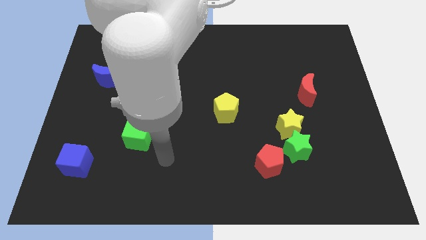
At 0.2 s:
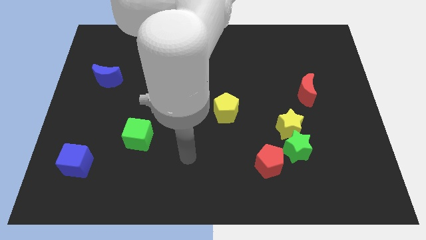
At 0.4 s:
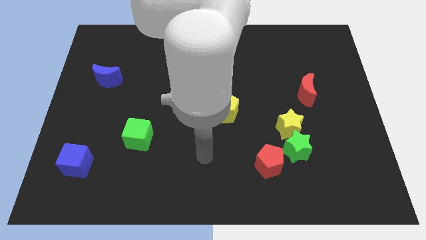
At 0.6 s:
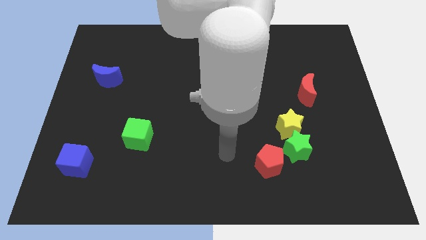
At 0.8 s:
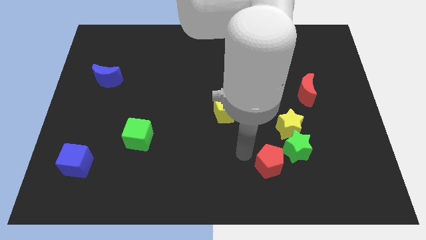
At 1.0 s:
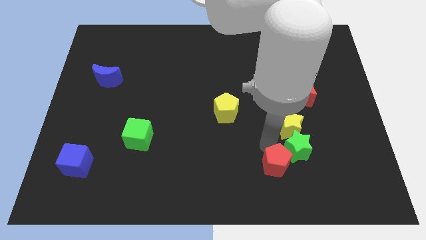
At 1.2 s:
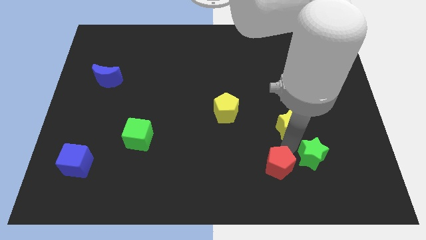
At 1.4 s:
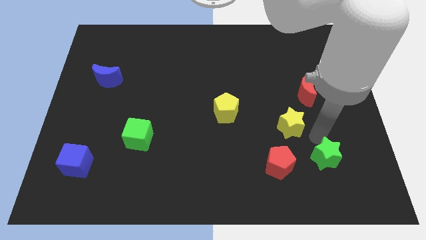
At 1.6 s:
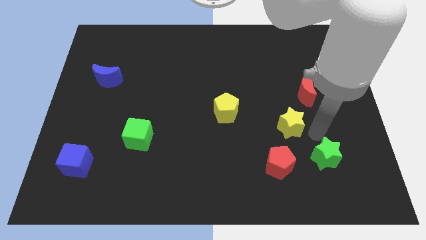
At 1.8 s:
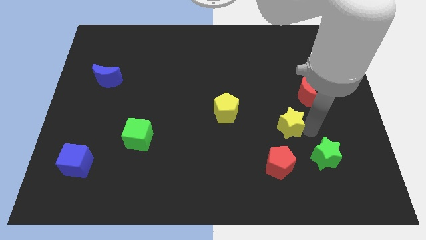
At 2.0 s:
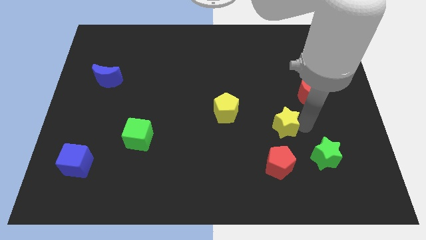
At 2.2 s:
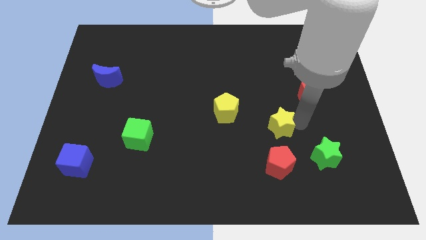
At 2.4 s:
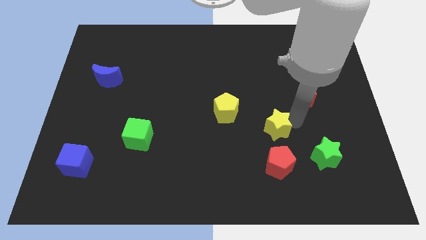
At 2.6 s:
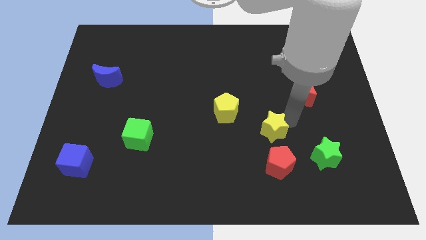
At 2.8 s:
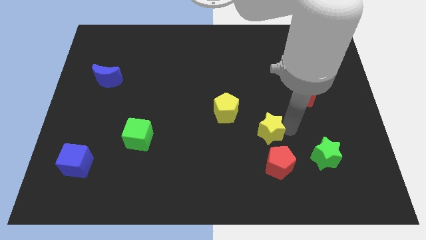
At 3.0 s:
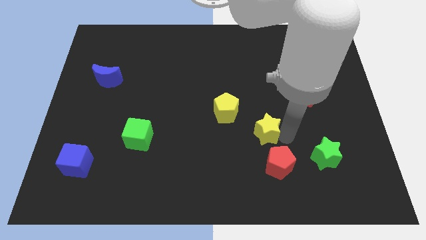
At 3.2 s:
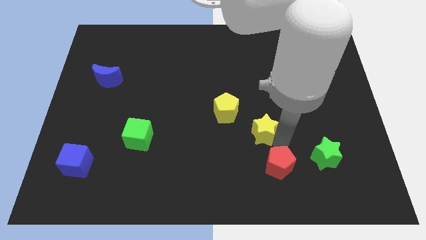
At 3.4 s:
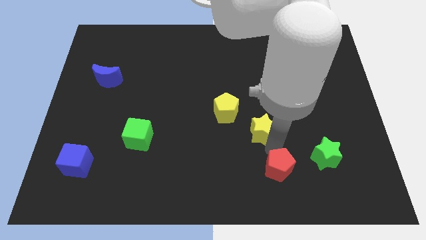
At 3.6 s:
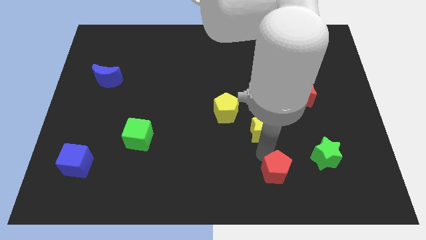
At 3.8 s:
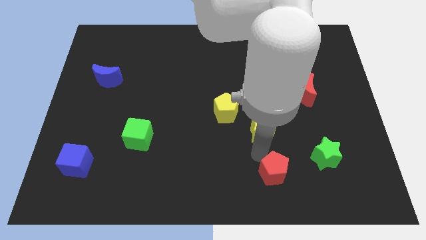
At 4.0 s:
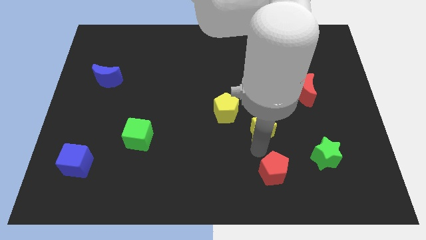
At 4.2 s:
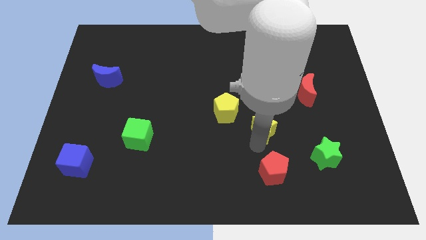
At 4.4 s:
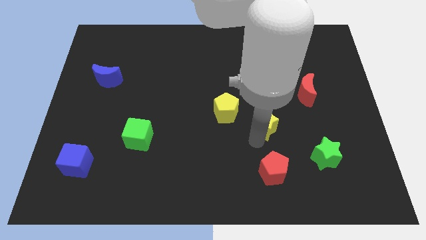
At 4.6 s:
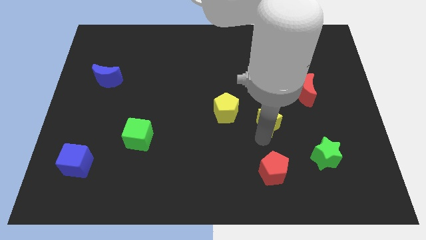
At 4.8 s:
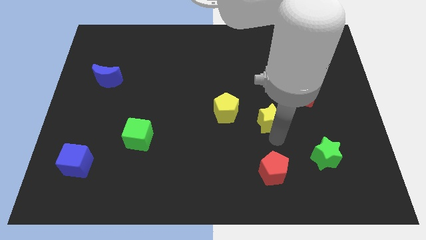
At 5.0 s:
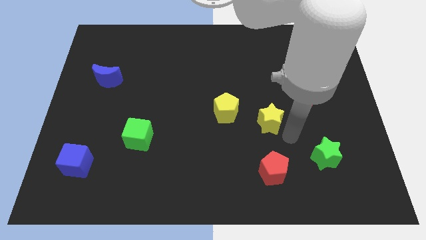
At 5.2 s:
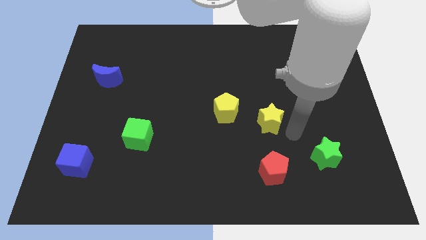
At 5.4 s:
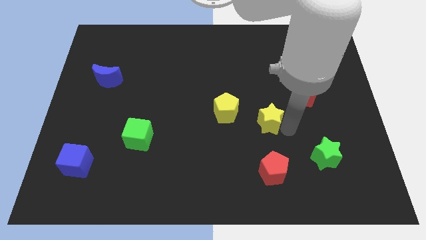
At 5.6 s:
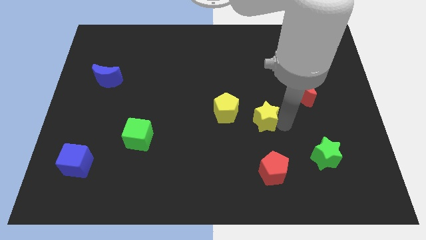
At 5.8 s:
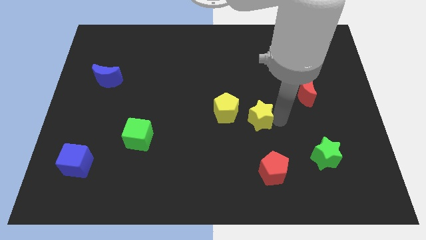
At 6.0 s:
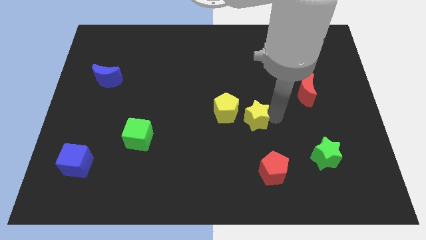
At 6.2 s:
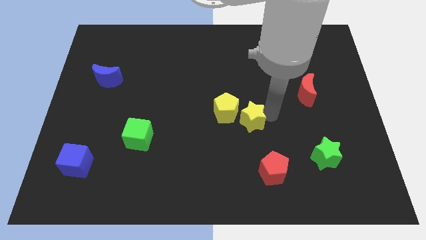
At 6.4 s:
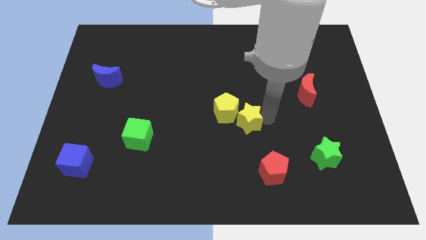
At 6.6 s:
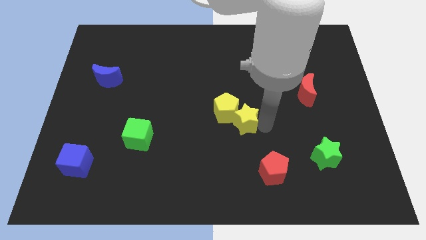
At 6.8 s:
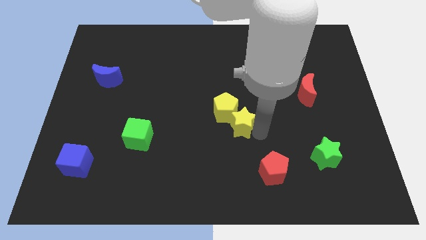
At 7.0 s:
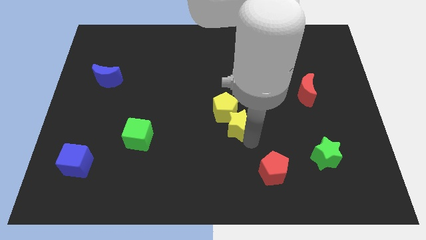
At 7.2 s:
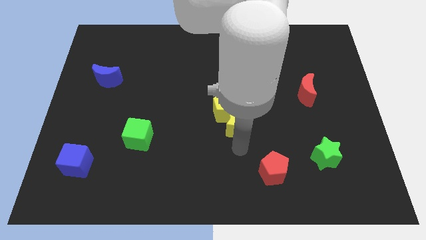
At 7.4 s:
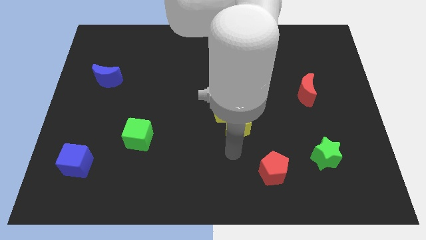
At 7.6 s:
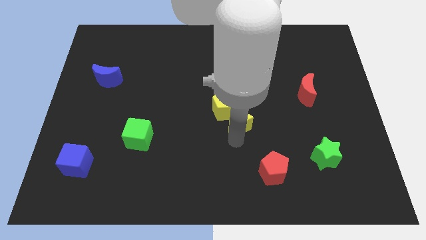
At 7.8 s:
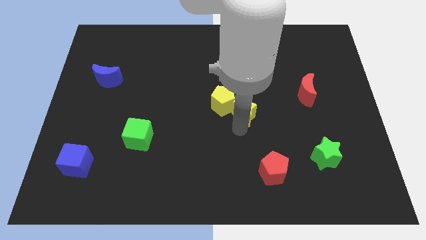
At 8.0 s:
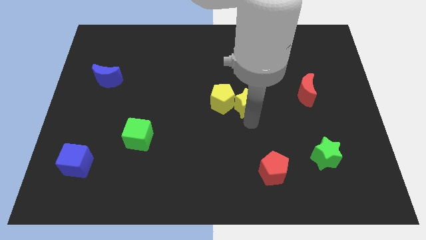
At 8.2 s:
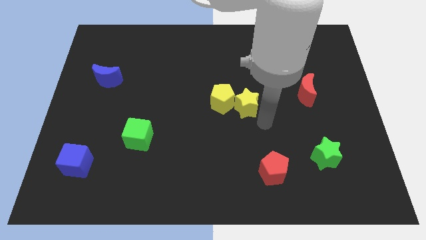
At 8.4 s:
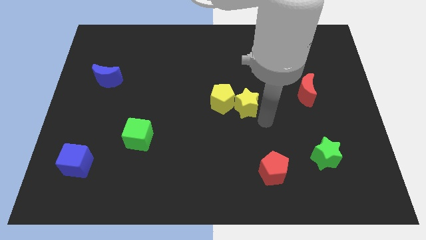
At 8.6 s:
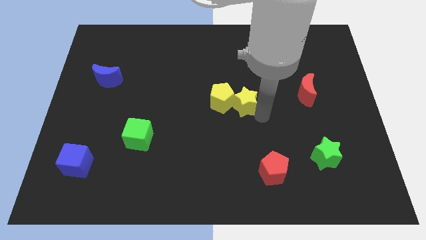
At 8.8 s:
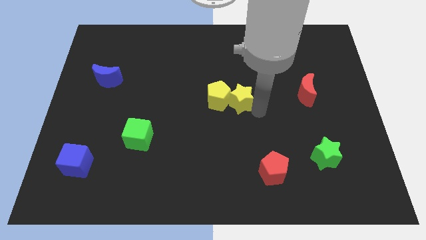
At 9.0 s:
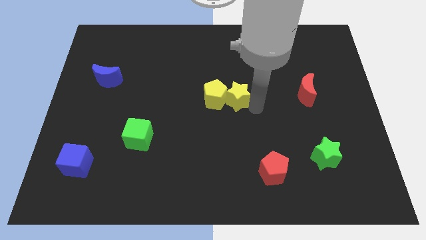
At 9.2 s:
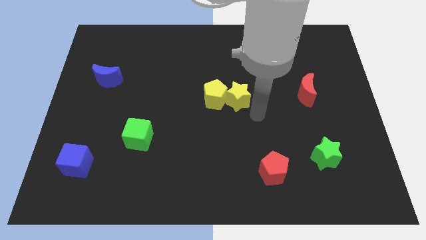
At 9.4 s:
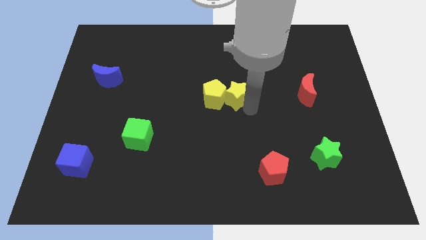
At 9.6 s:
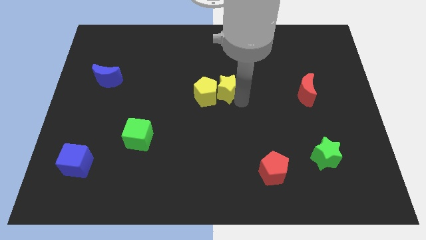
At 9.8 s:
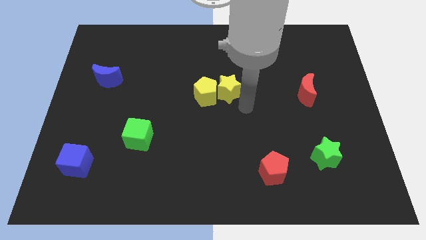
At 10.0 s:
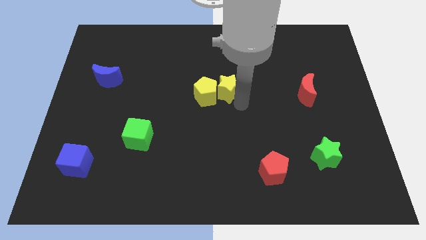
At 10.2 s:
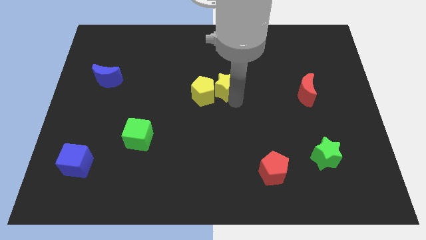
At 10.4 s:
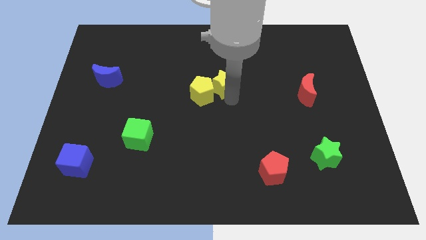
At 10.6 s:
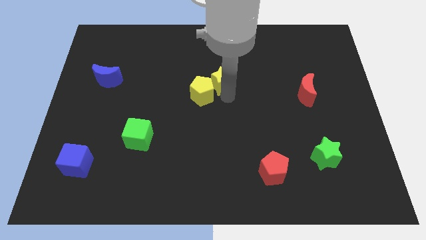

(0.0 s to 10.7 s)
move the yellow star up and to the left

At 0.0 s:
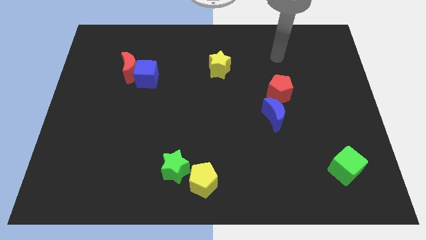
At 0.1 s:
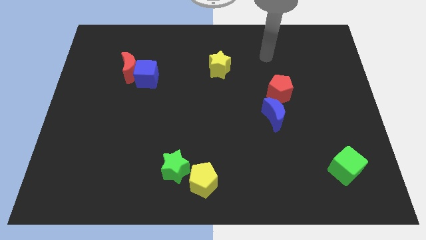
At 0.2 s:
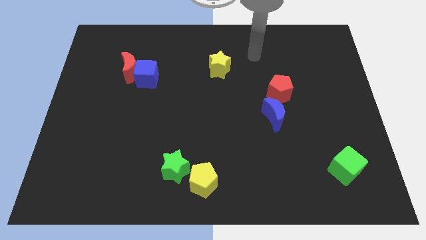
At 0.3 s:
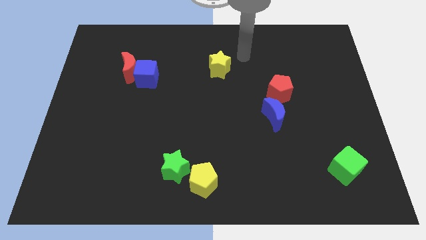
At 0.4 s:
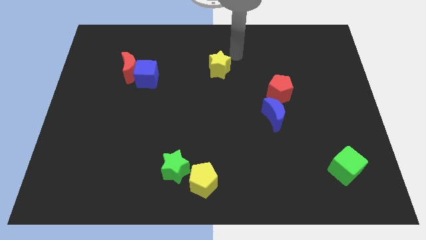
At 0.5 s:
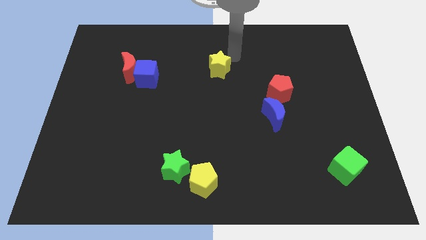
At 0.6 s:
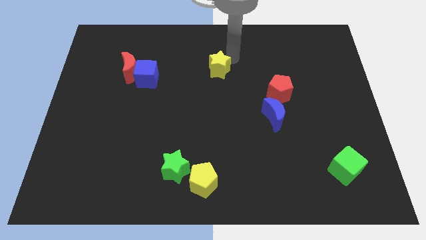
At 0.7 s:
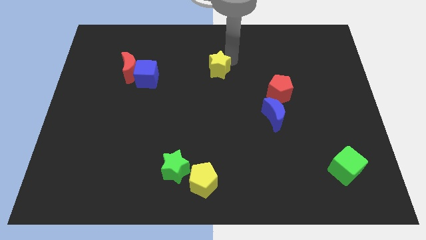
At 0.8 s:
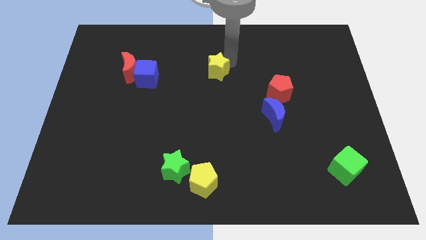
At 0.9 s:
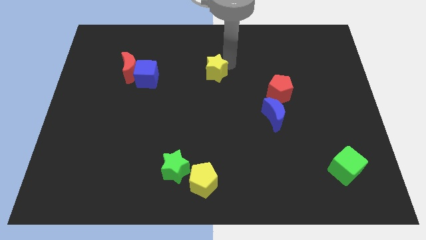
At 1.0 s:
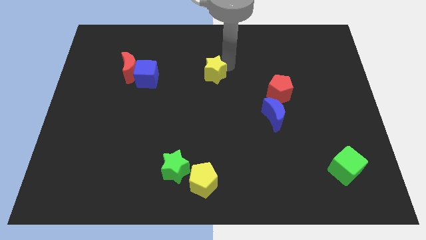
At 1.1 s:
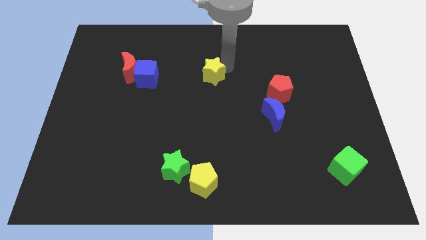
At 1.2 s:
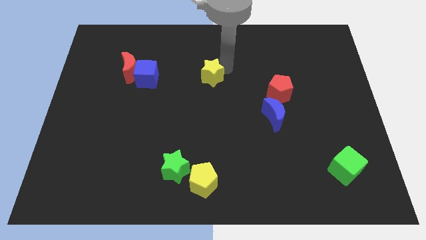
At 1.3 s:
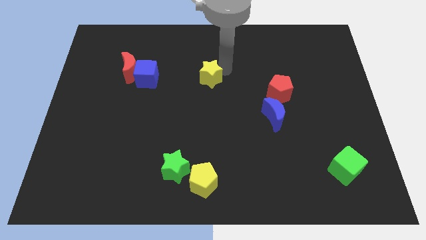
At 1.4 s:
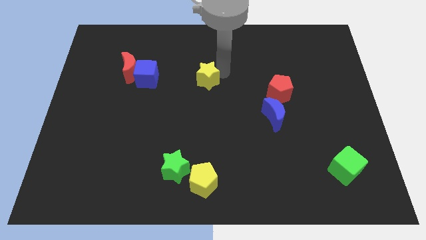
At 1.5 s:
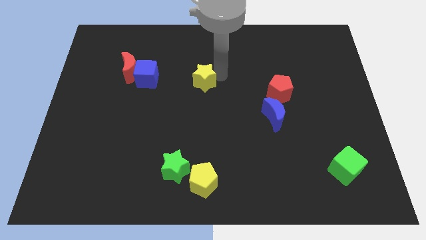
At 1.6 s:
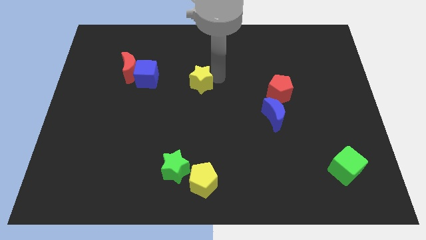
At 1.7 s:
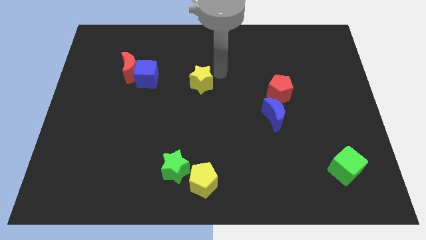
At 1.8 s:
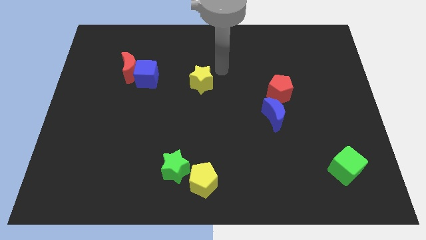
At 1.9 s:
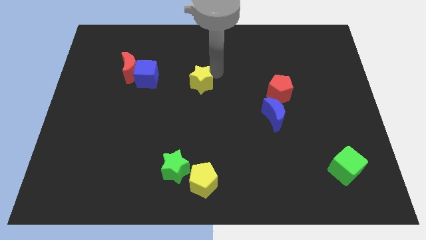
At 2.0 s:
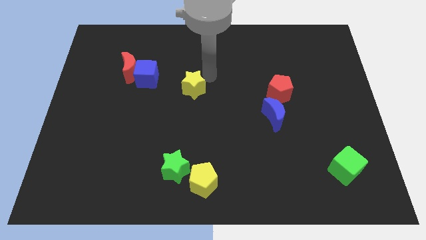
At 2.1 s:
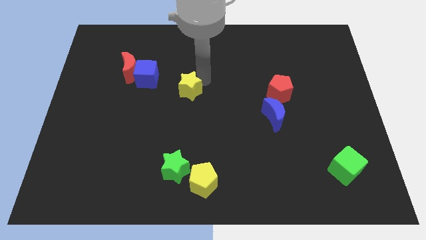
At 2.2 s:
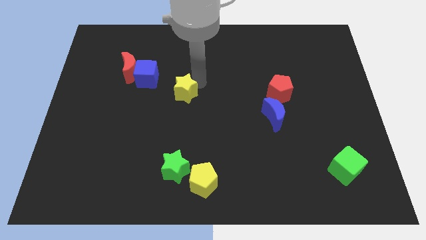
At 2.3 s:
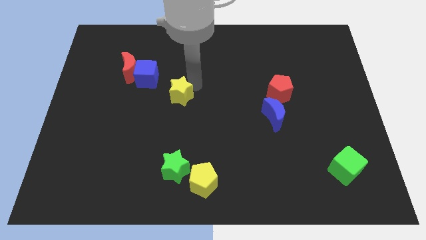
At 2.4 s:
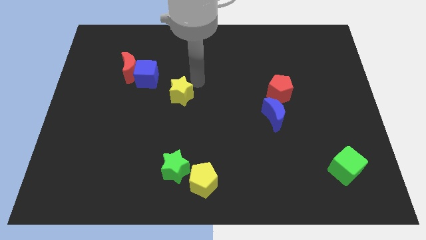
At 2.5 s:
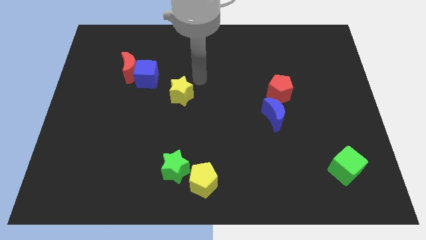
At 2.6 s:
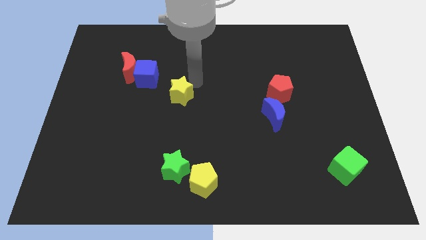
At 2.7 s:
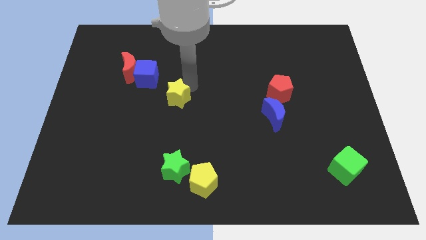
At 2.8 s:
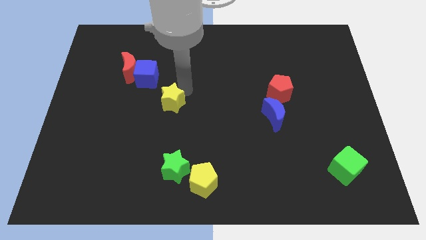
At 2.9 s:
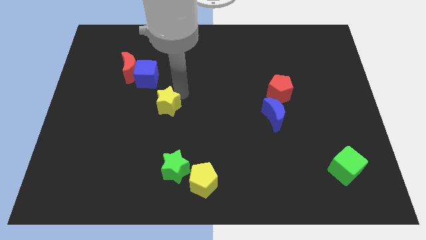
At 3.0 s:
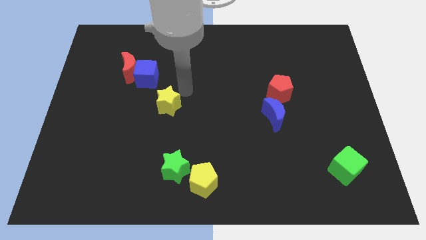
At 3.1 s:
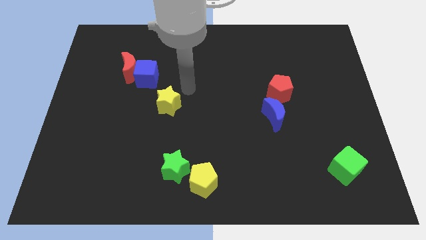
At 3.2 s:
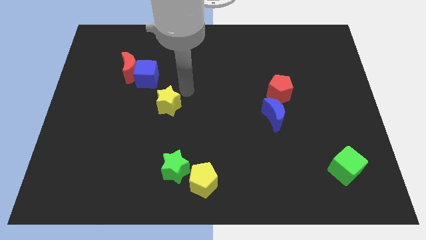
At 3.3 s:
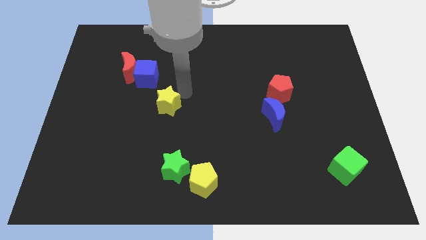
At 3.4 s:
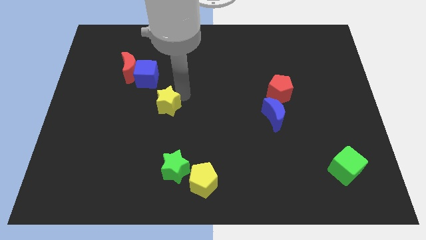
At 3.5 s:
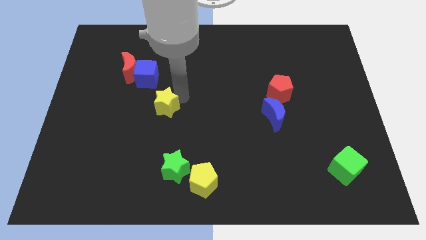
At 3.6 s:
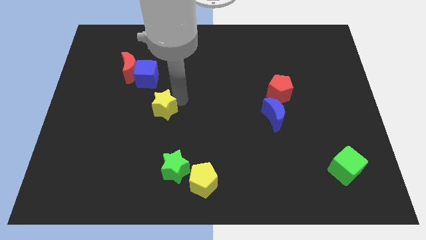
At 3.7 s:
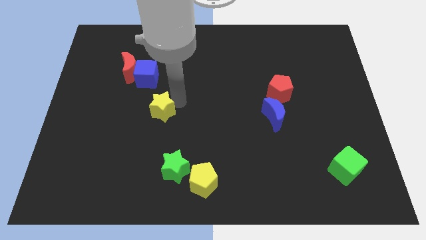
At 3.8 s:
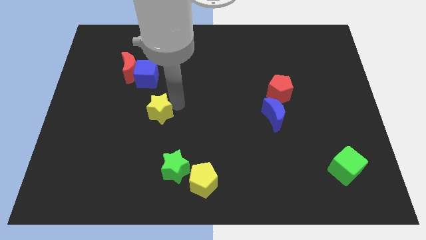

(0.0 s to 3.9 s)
slide the yellow star down and then to the left
